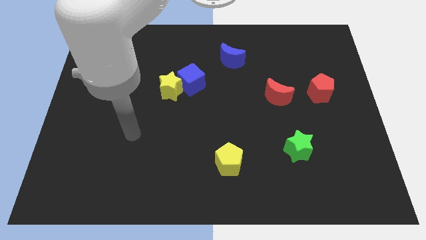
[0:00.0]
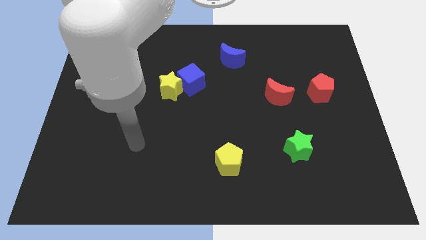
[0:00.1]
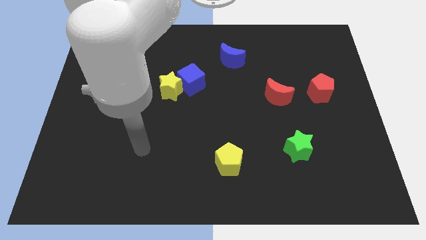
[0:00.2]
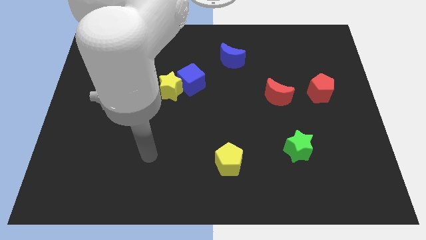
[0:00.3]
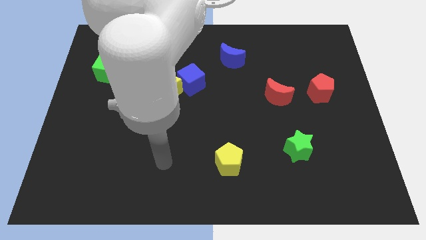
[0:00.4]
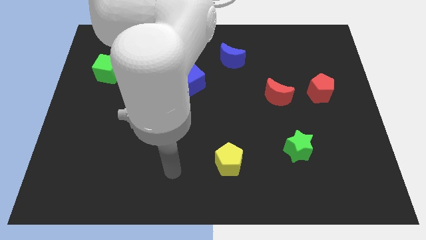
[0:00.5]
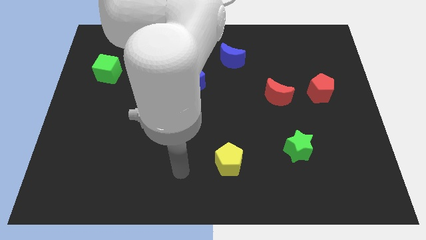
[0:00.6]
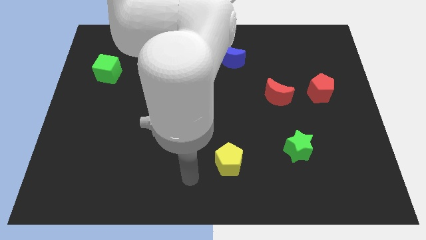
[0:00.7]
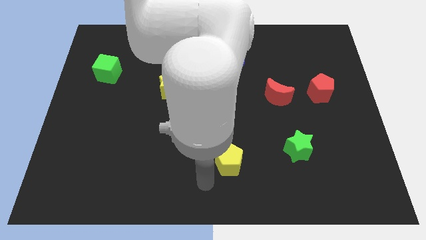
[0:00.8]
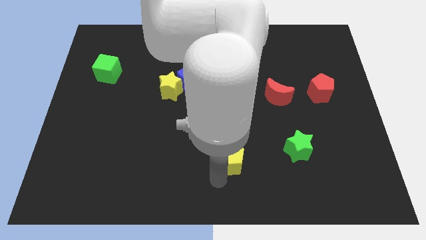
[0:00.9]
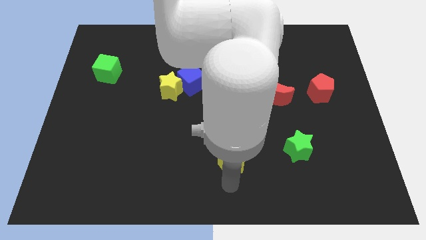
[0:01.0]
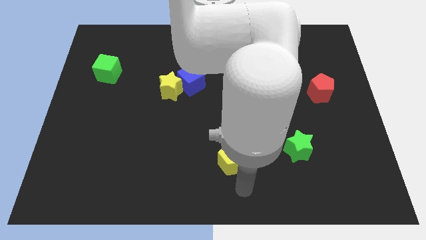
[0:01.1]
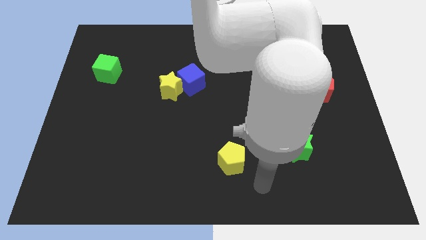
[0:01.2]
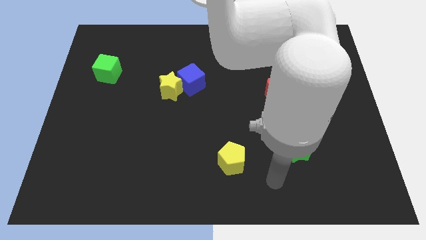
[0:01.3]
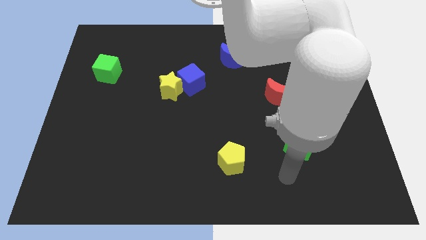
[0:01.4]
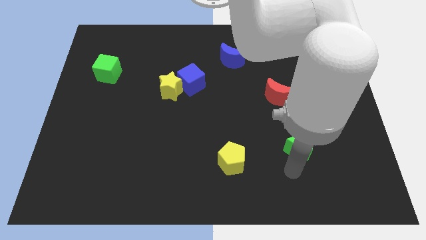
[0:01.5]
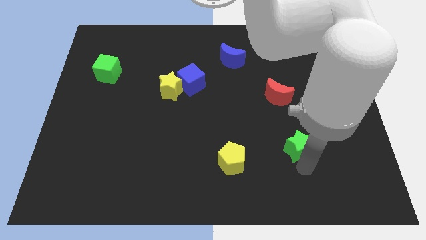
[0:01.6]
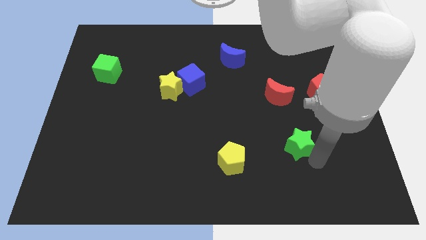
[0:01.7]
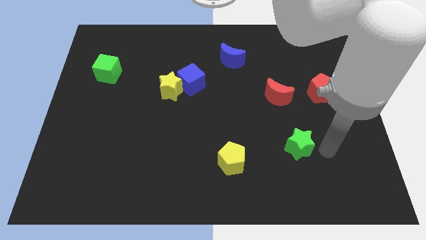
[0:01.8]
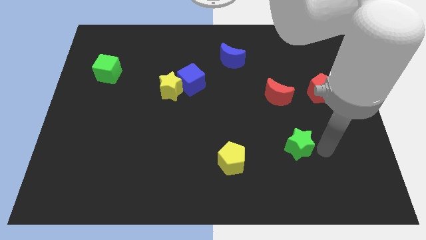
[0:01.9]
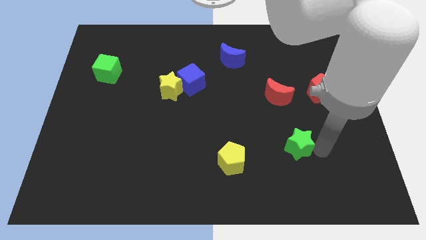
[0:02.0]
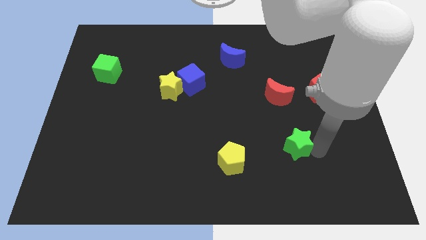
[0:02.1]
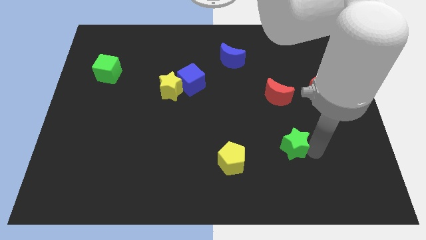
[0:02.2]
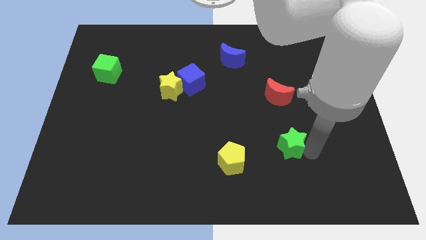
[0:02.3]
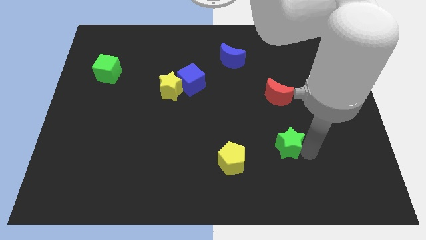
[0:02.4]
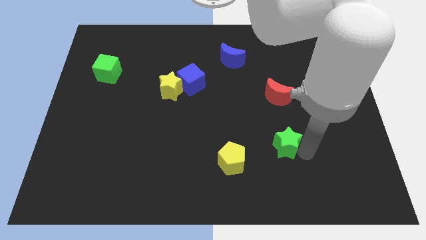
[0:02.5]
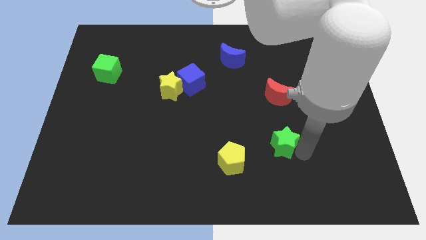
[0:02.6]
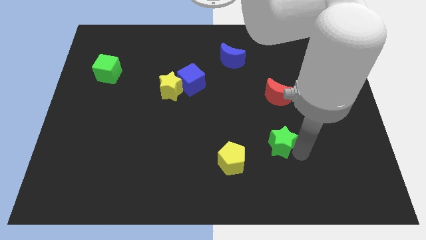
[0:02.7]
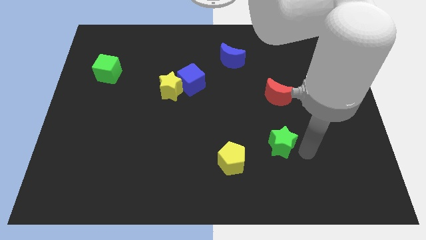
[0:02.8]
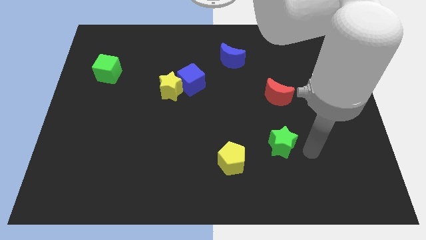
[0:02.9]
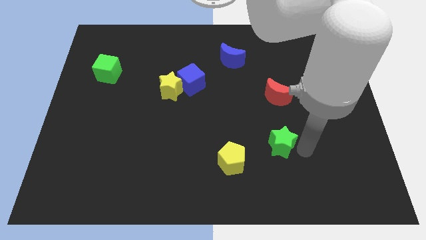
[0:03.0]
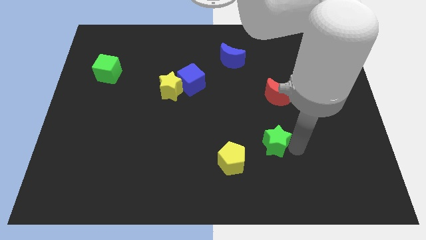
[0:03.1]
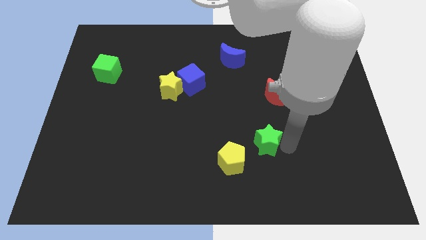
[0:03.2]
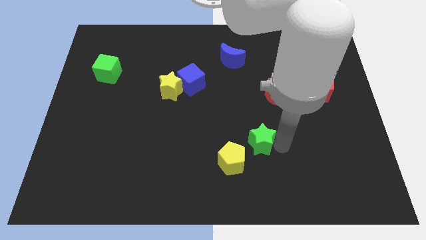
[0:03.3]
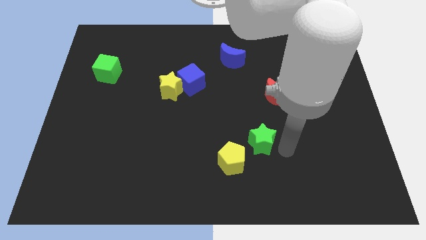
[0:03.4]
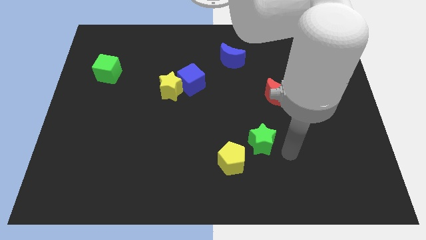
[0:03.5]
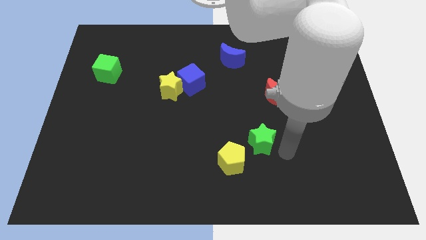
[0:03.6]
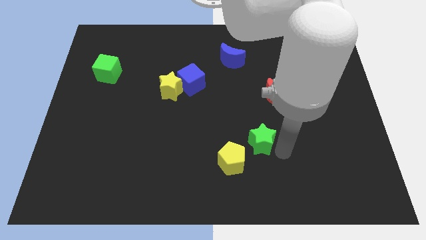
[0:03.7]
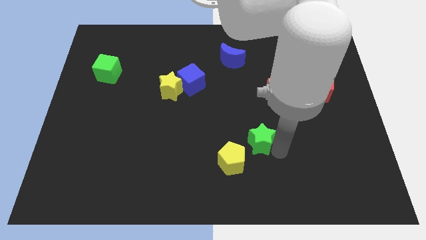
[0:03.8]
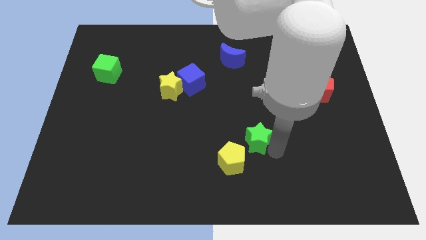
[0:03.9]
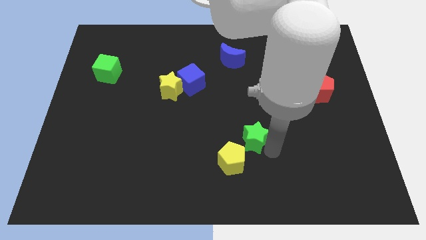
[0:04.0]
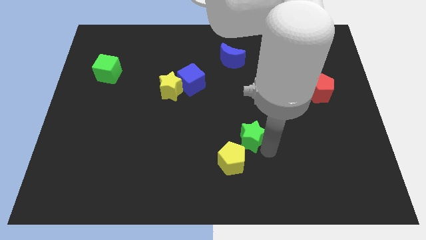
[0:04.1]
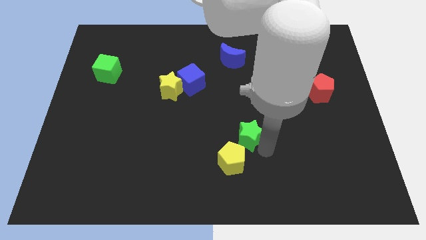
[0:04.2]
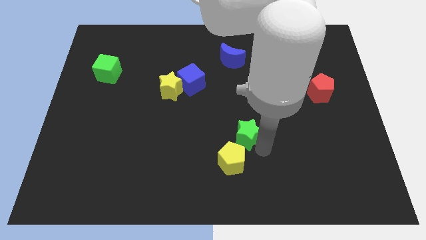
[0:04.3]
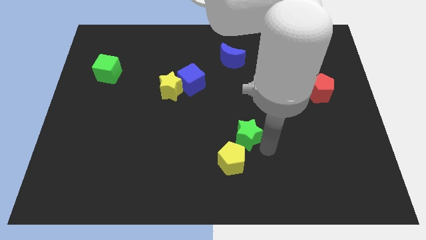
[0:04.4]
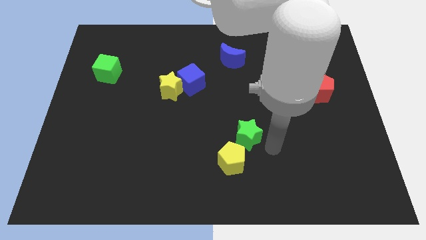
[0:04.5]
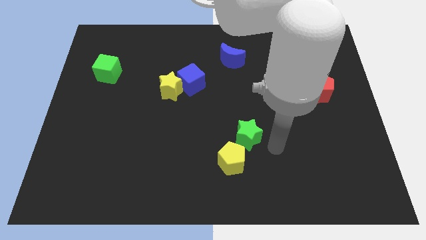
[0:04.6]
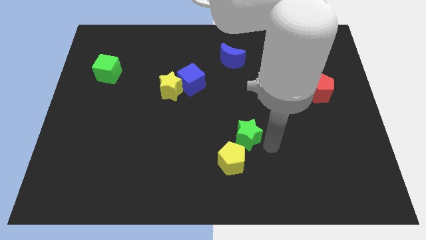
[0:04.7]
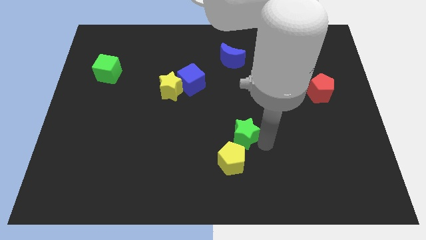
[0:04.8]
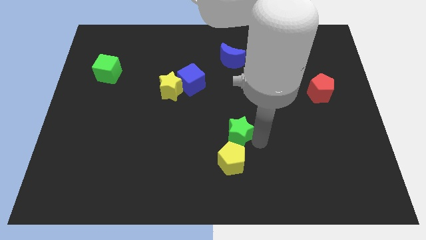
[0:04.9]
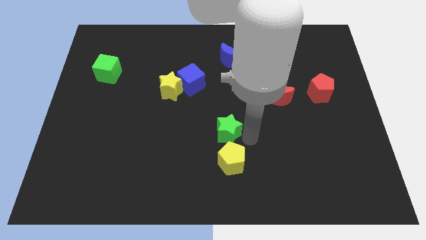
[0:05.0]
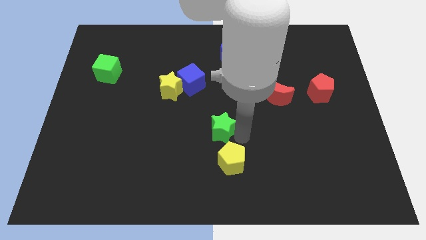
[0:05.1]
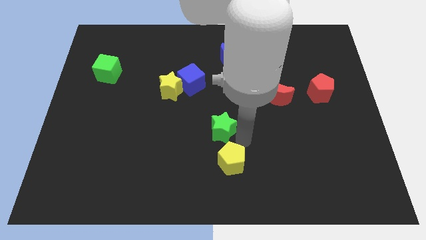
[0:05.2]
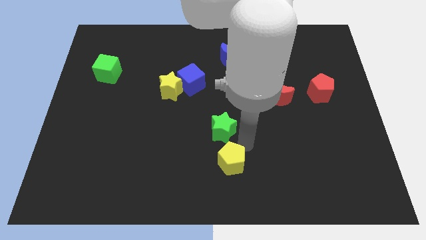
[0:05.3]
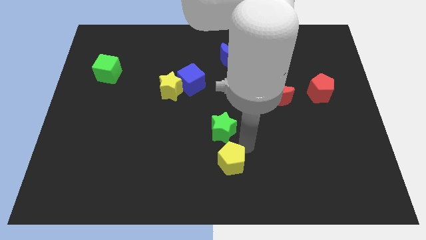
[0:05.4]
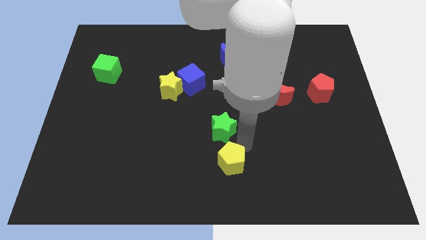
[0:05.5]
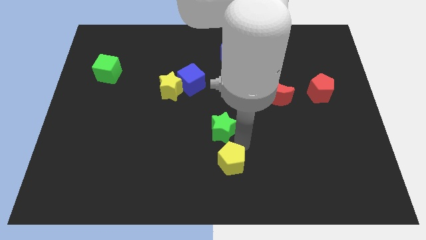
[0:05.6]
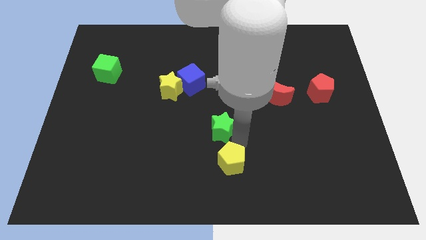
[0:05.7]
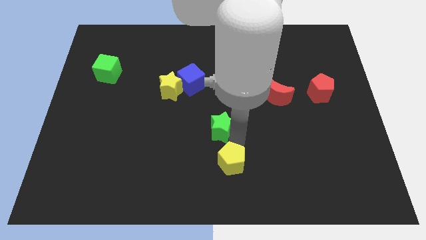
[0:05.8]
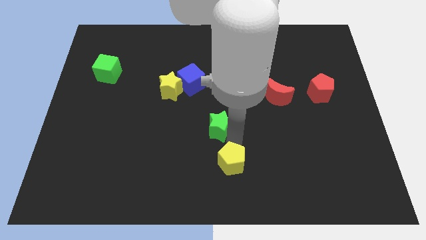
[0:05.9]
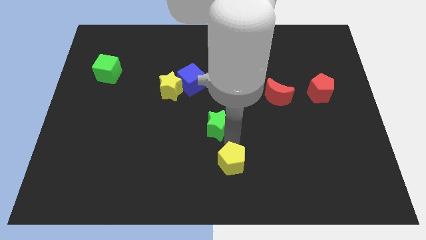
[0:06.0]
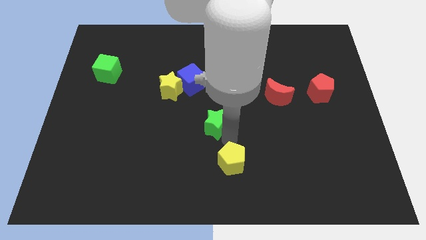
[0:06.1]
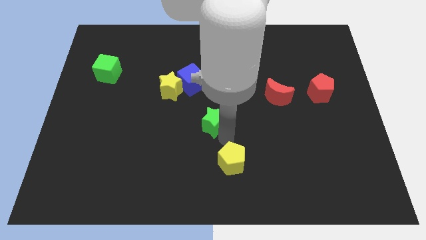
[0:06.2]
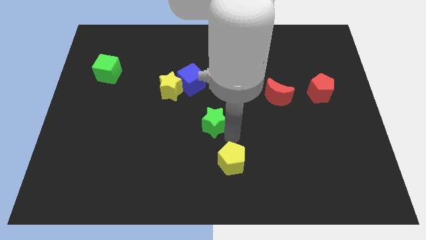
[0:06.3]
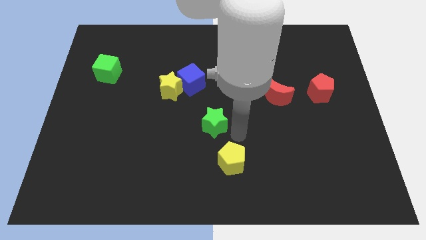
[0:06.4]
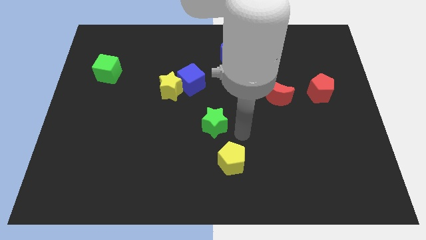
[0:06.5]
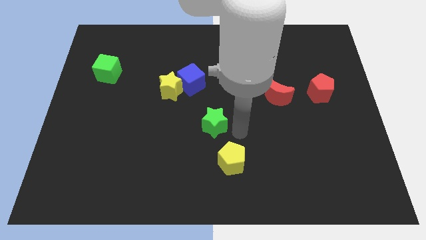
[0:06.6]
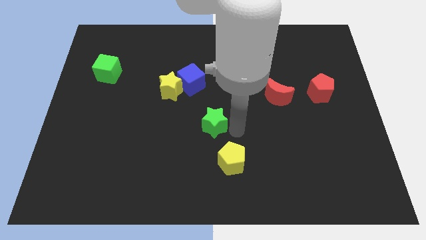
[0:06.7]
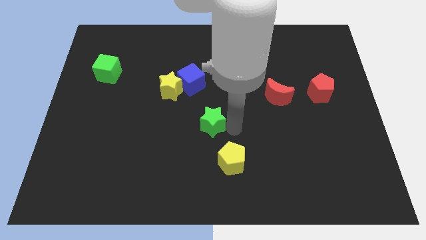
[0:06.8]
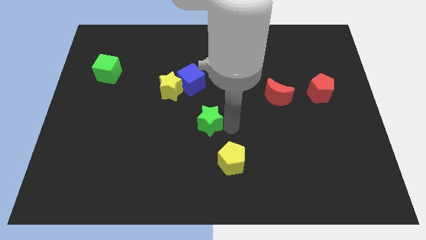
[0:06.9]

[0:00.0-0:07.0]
slide the green star to the bottom of the blue cube
